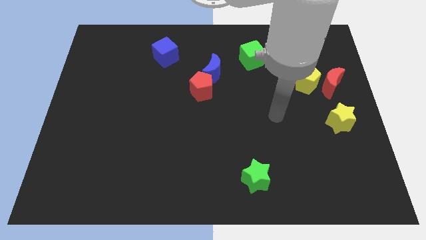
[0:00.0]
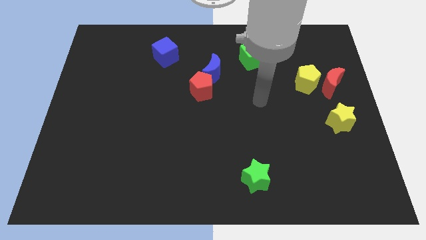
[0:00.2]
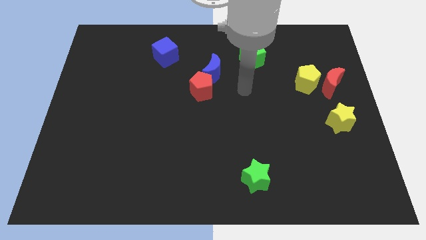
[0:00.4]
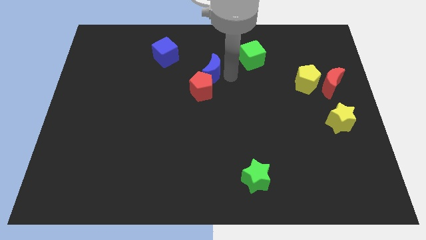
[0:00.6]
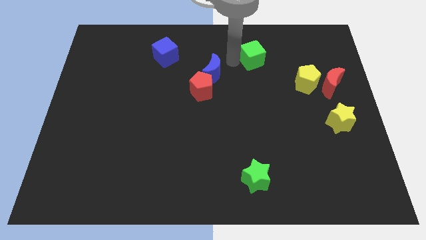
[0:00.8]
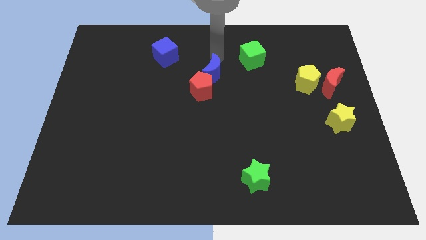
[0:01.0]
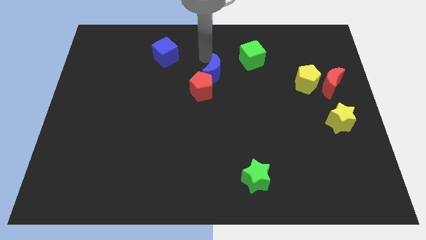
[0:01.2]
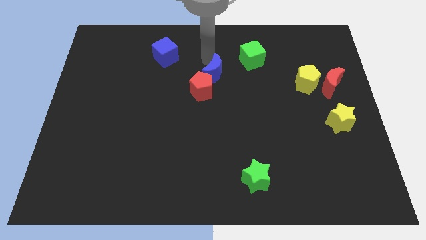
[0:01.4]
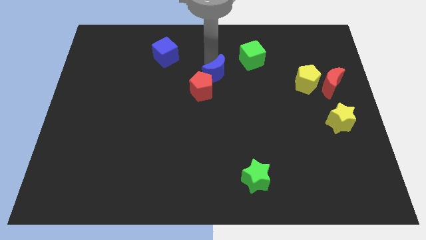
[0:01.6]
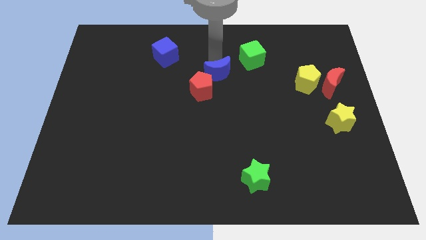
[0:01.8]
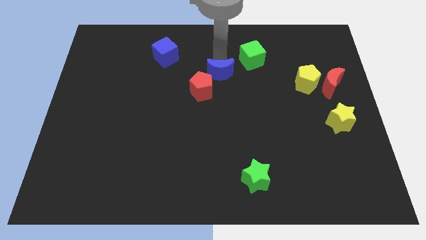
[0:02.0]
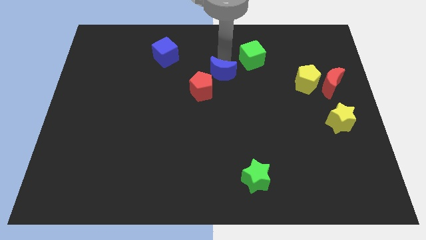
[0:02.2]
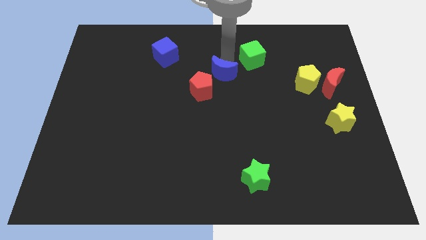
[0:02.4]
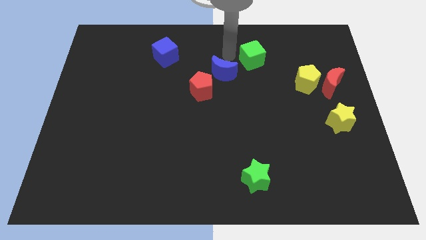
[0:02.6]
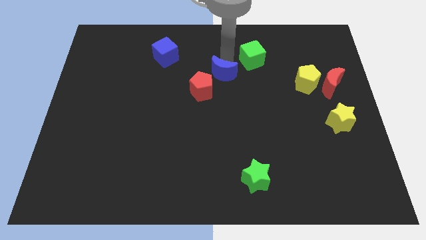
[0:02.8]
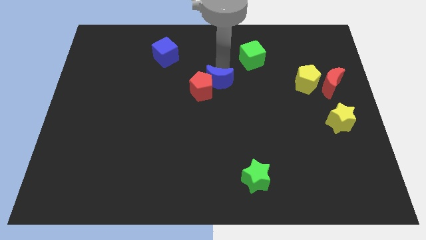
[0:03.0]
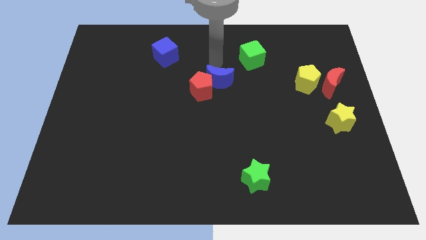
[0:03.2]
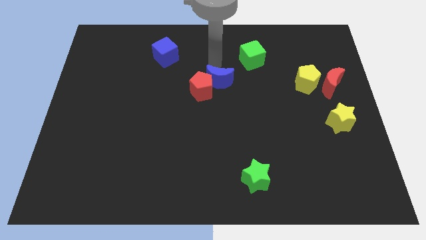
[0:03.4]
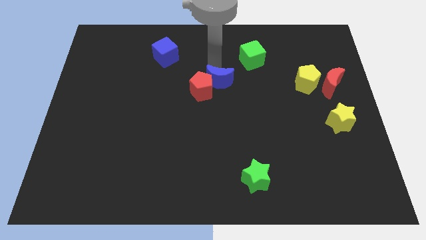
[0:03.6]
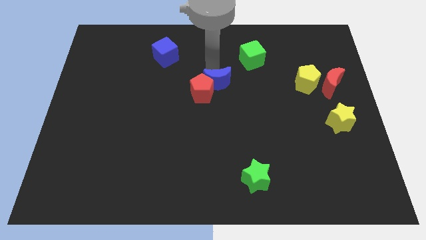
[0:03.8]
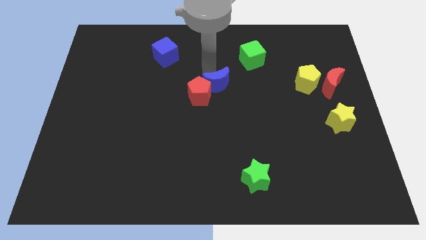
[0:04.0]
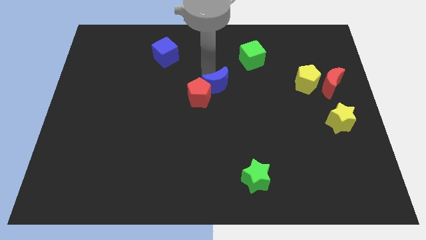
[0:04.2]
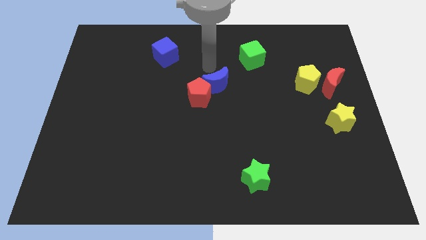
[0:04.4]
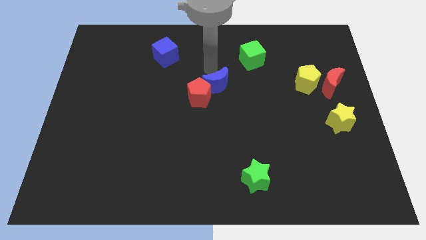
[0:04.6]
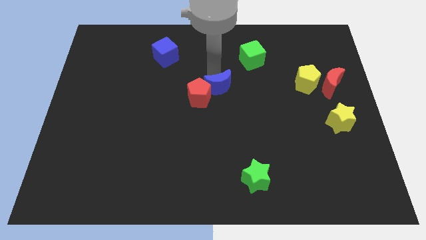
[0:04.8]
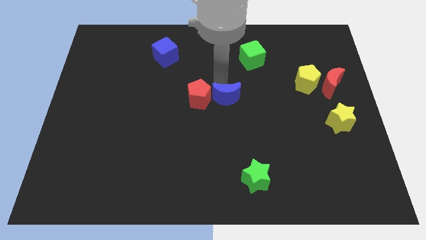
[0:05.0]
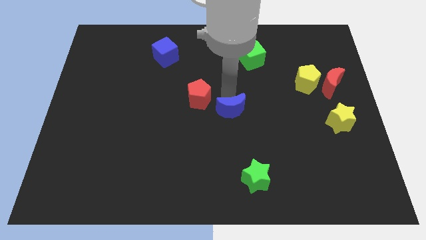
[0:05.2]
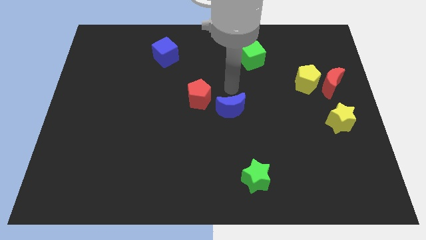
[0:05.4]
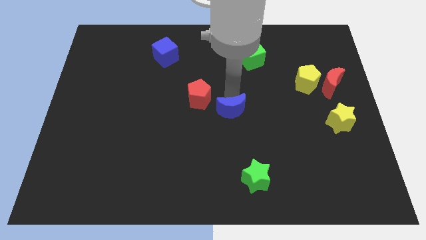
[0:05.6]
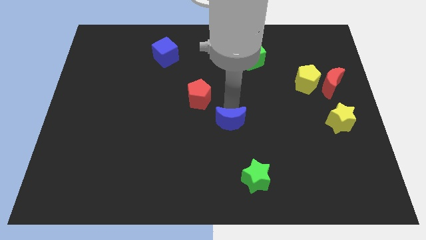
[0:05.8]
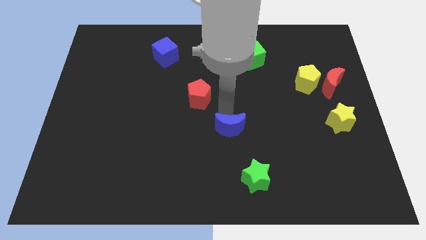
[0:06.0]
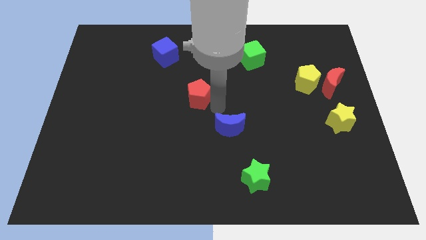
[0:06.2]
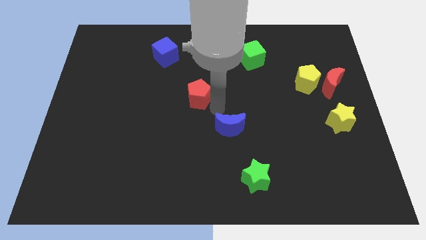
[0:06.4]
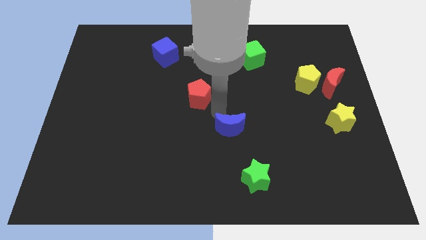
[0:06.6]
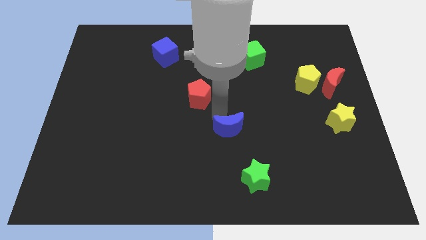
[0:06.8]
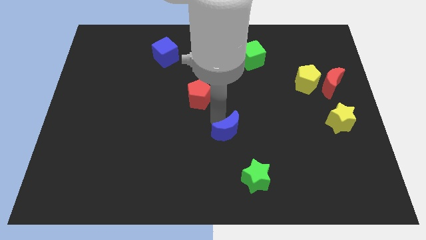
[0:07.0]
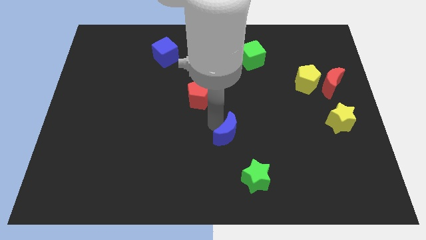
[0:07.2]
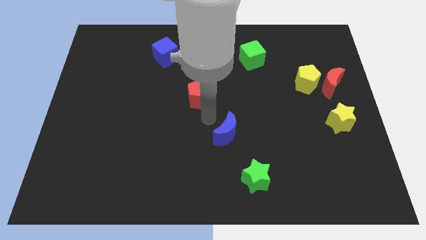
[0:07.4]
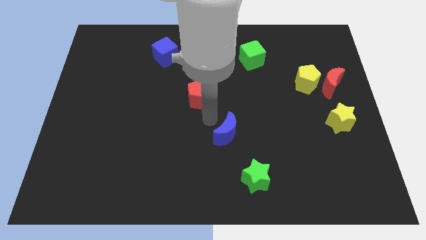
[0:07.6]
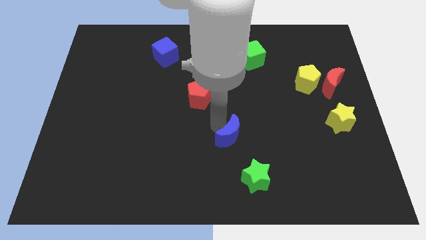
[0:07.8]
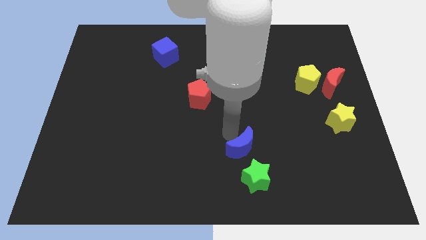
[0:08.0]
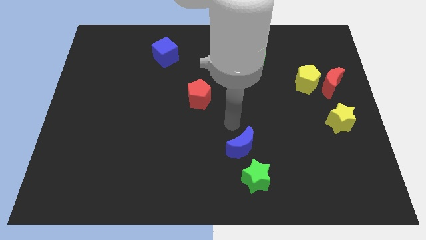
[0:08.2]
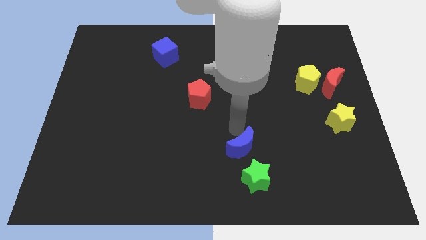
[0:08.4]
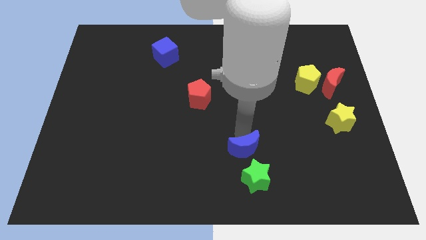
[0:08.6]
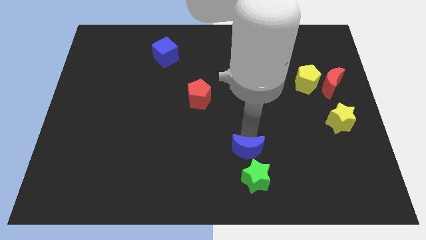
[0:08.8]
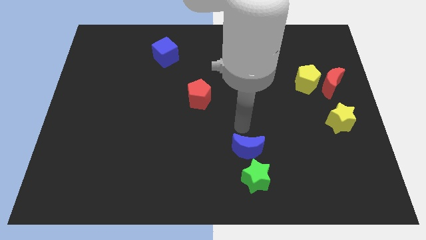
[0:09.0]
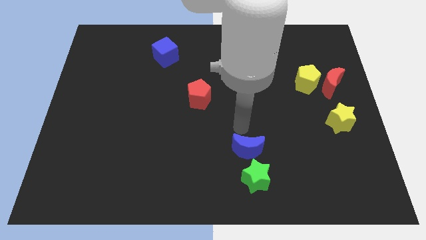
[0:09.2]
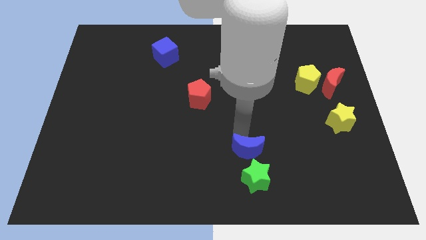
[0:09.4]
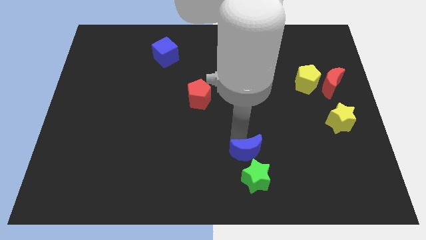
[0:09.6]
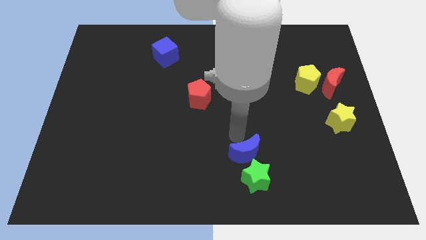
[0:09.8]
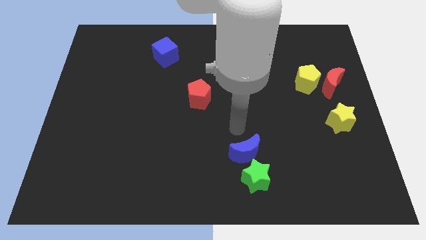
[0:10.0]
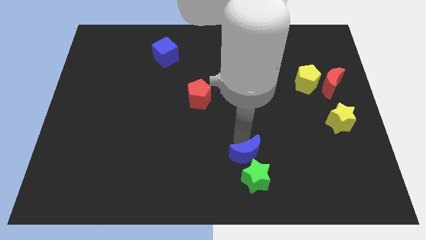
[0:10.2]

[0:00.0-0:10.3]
slide the blue moon towards the green star

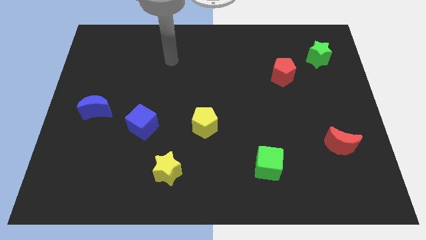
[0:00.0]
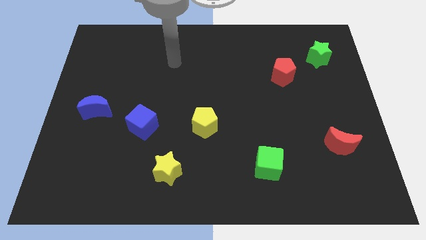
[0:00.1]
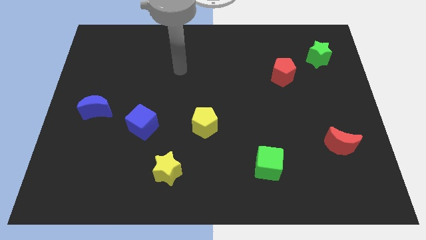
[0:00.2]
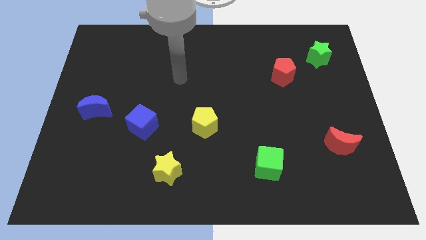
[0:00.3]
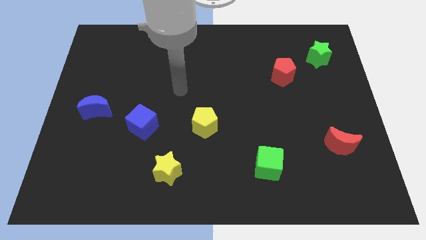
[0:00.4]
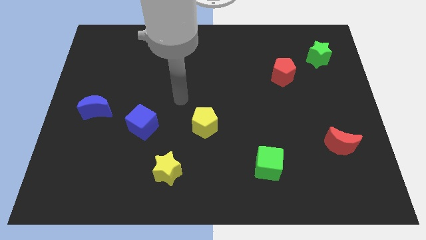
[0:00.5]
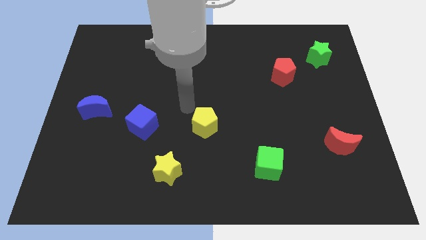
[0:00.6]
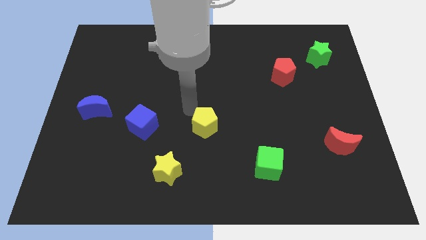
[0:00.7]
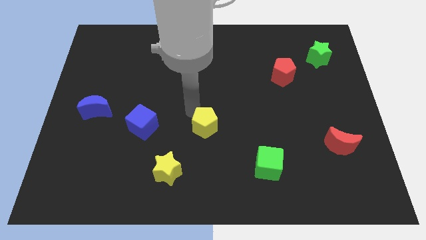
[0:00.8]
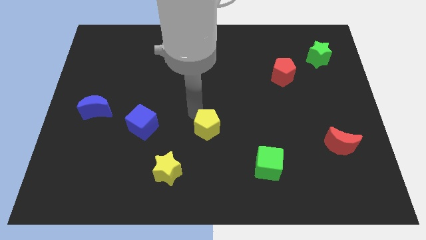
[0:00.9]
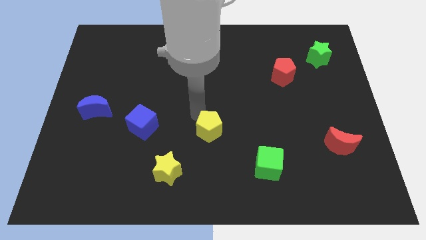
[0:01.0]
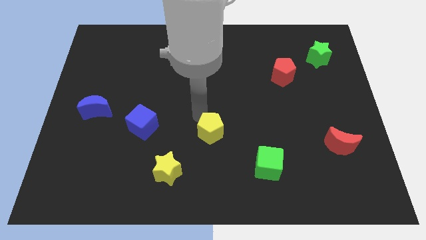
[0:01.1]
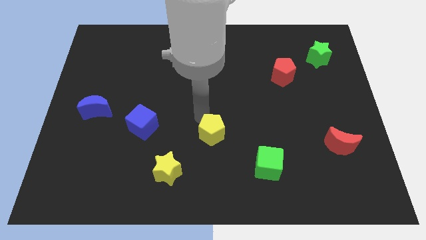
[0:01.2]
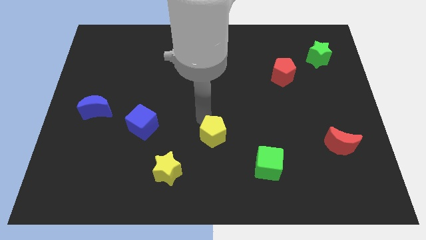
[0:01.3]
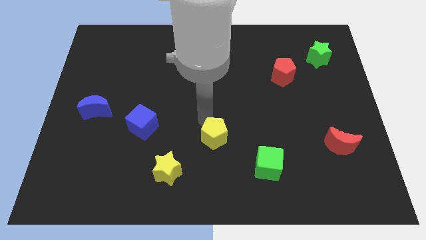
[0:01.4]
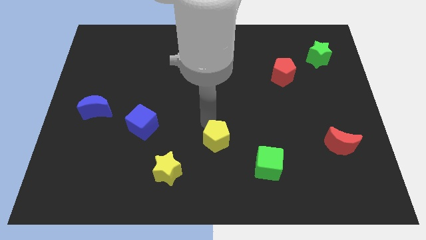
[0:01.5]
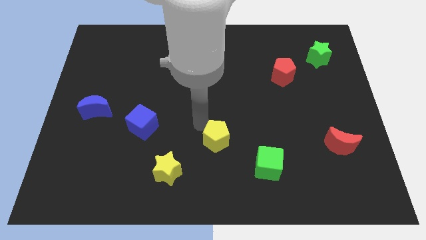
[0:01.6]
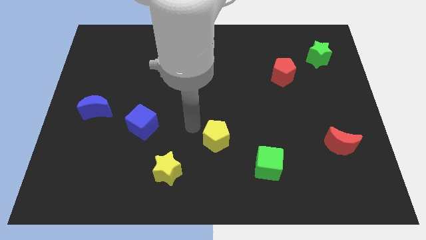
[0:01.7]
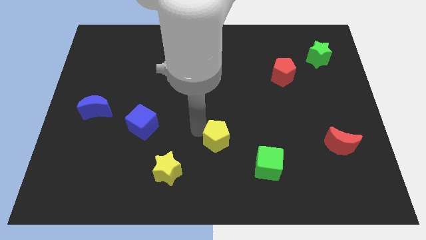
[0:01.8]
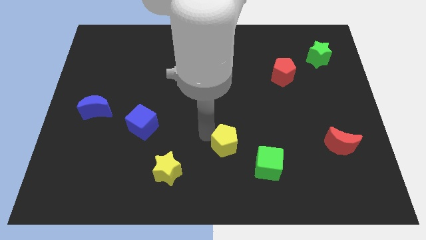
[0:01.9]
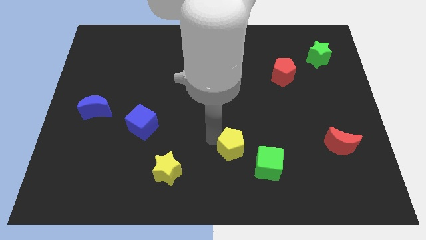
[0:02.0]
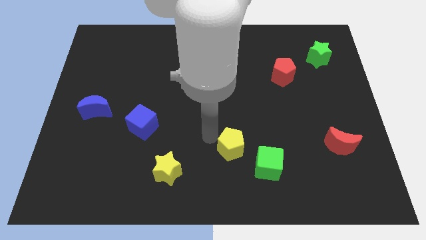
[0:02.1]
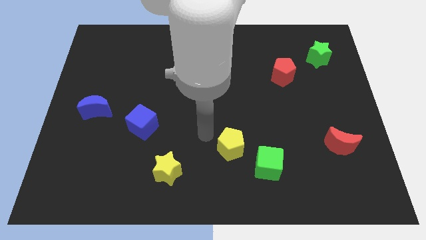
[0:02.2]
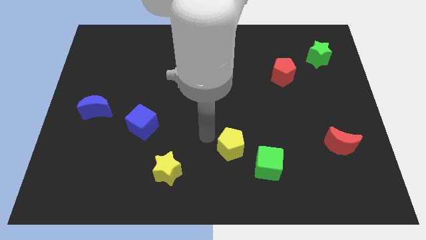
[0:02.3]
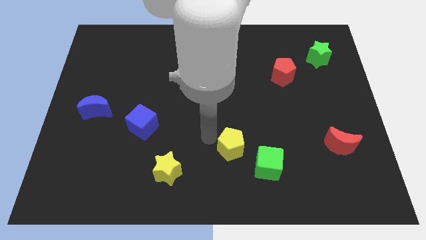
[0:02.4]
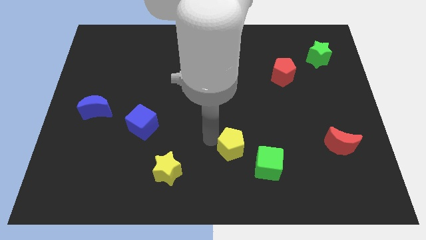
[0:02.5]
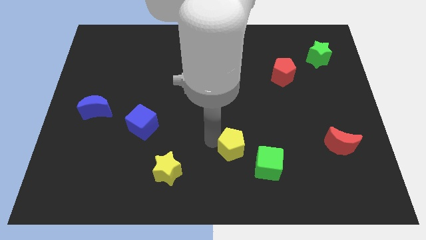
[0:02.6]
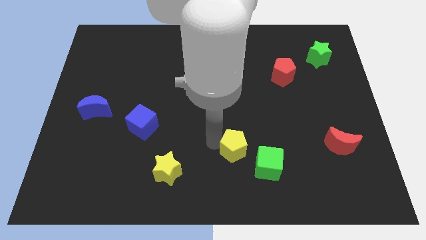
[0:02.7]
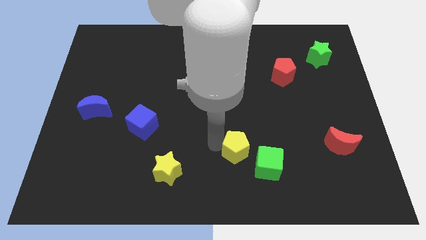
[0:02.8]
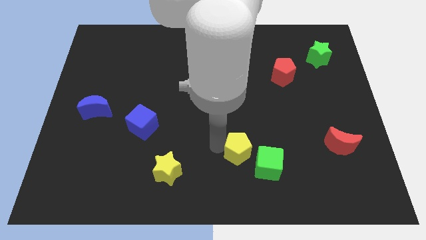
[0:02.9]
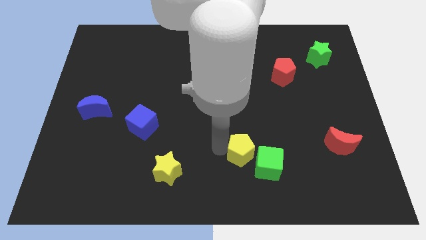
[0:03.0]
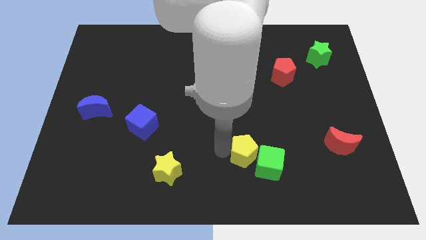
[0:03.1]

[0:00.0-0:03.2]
put the yellow pentagon close to the green cube
